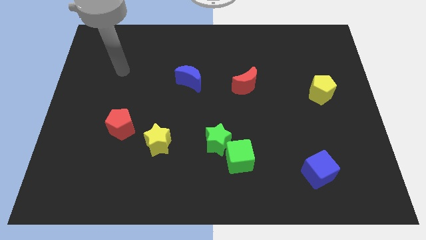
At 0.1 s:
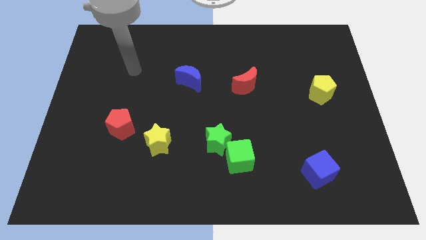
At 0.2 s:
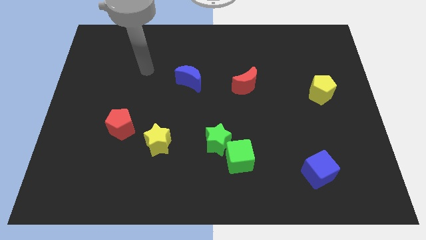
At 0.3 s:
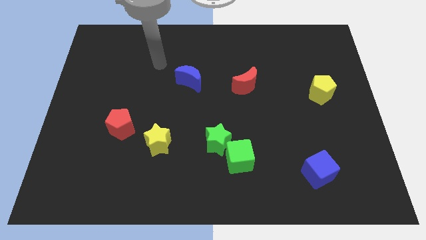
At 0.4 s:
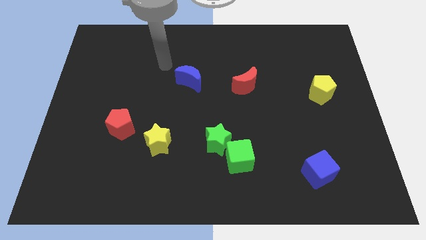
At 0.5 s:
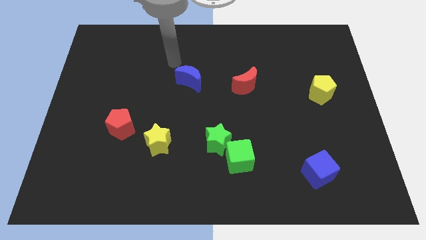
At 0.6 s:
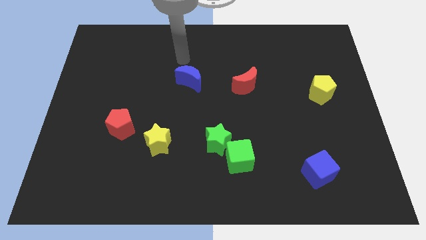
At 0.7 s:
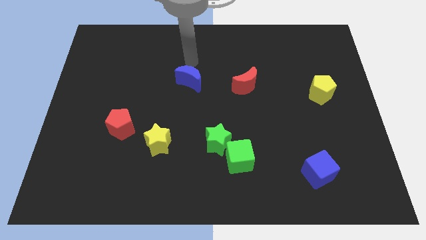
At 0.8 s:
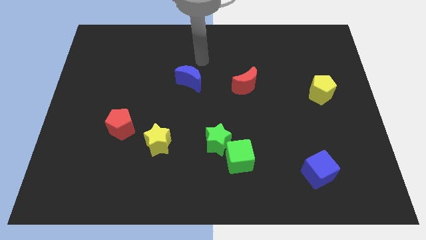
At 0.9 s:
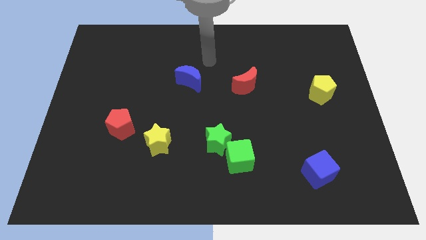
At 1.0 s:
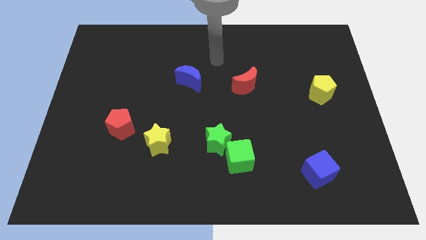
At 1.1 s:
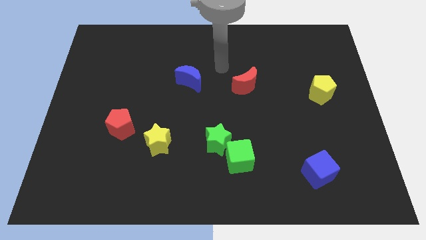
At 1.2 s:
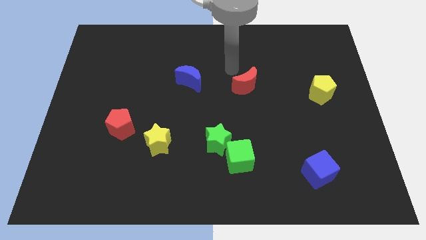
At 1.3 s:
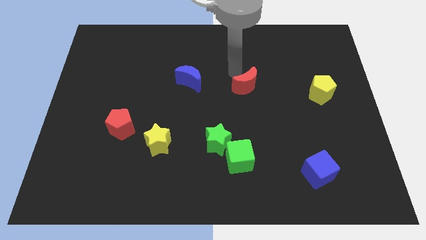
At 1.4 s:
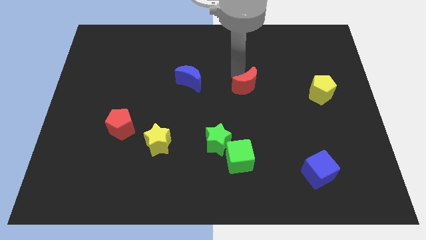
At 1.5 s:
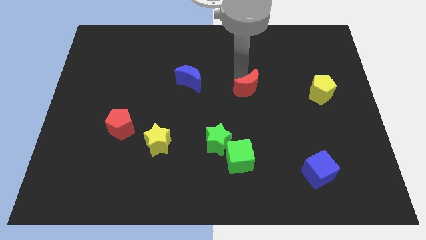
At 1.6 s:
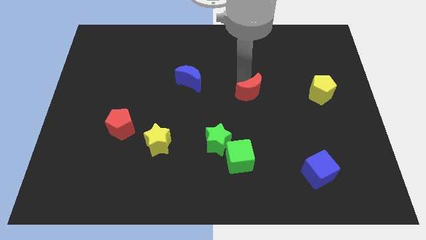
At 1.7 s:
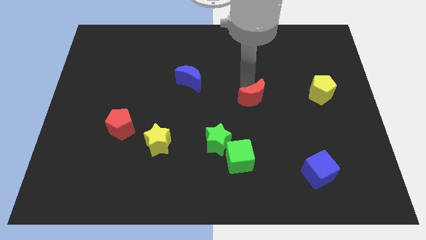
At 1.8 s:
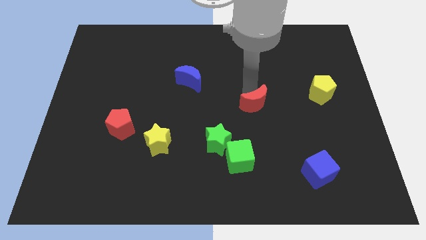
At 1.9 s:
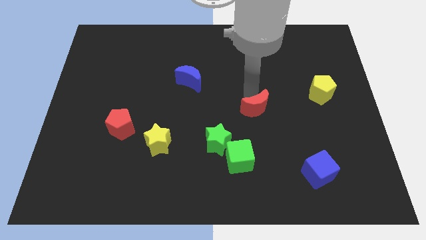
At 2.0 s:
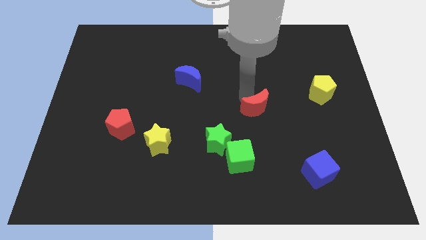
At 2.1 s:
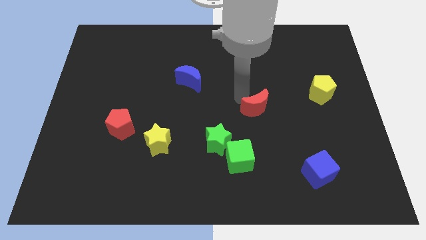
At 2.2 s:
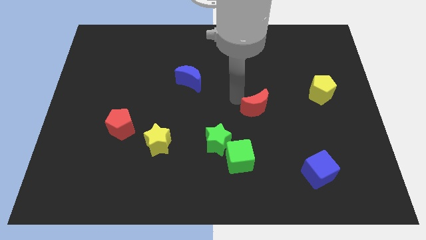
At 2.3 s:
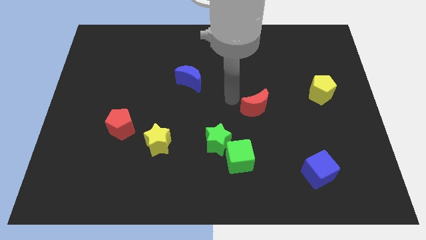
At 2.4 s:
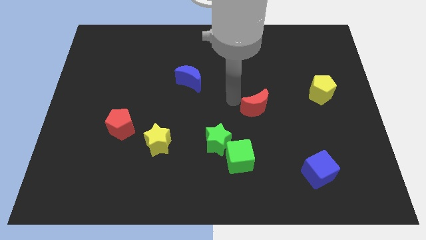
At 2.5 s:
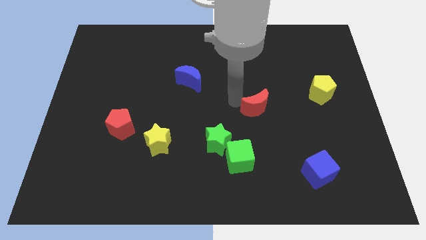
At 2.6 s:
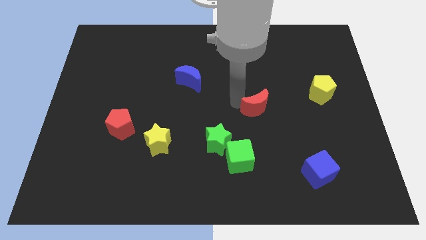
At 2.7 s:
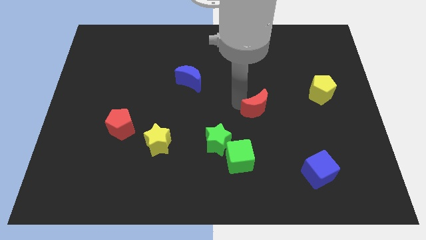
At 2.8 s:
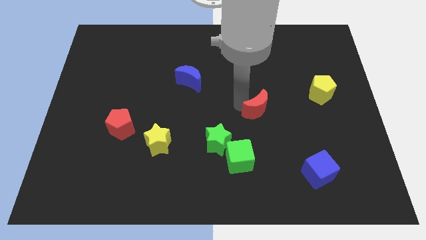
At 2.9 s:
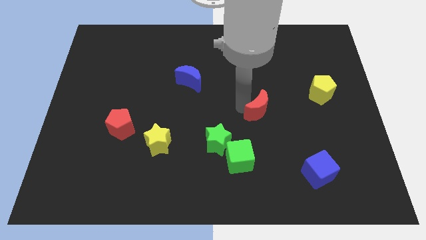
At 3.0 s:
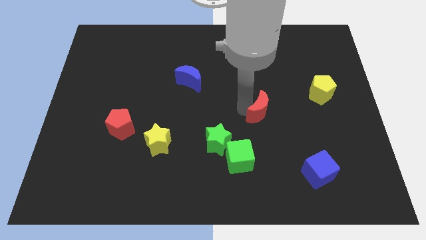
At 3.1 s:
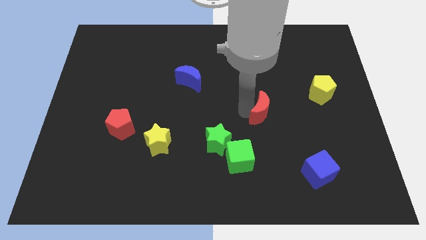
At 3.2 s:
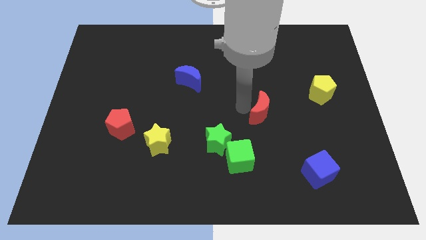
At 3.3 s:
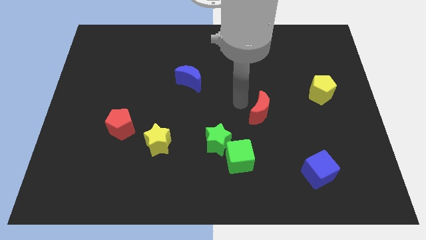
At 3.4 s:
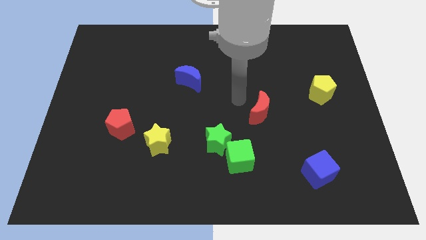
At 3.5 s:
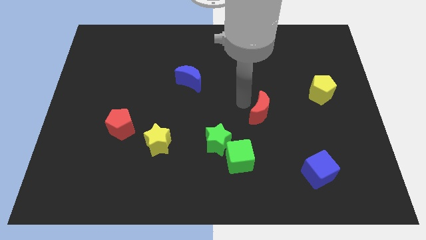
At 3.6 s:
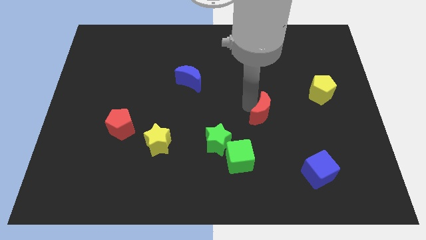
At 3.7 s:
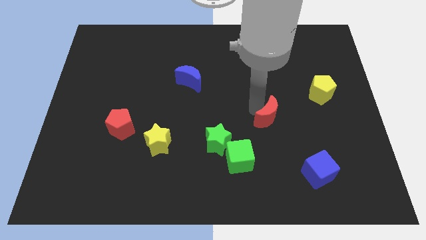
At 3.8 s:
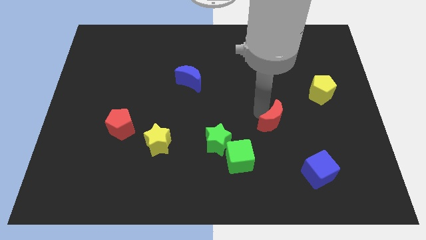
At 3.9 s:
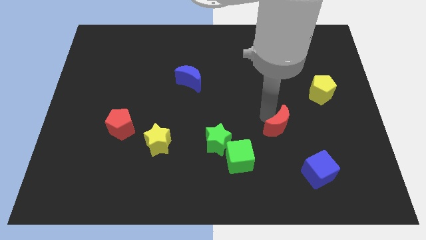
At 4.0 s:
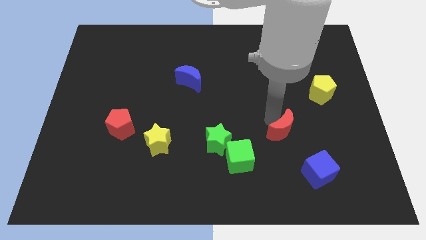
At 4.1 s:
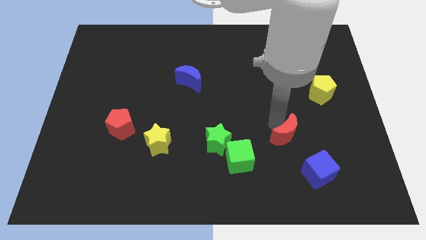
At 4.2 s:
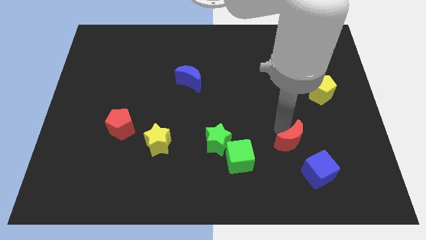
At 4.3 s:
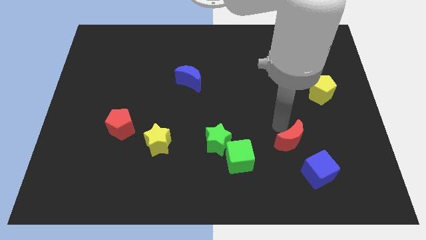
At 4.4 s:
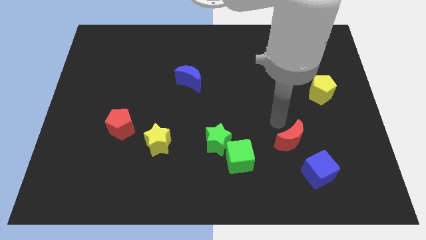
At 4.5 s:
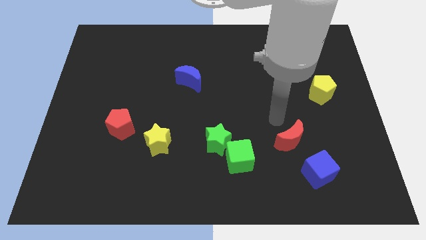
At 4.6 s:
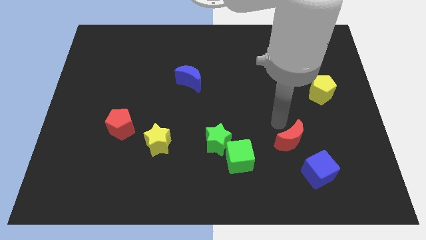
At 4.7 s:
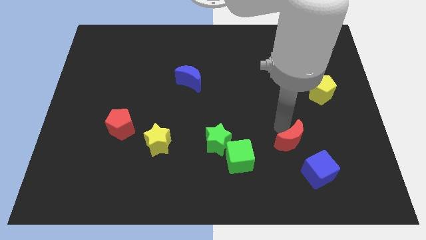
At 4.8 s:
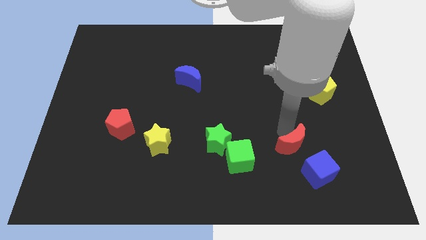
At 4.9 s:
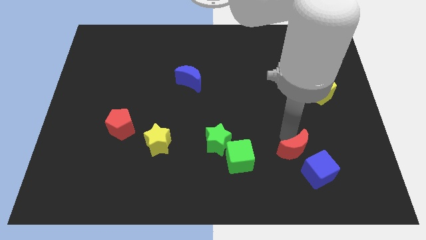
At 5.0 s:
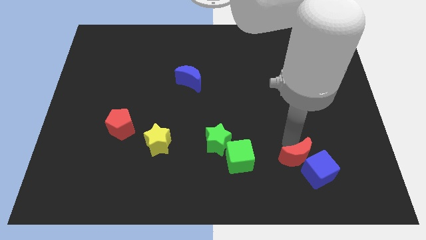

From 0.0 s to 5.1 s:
push the red moon close to the blue cube

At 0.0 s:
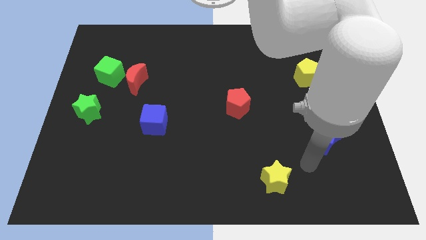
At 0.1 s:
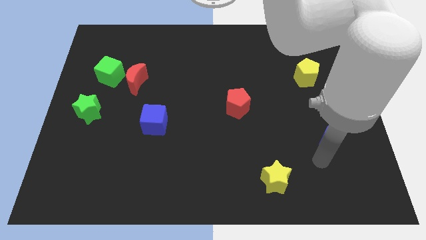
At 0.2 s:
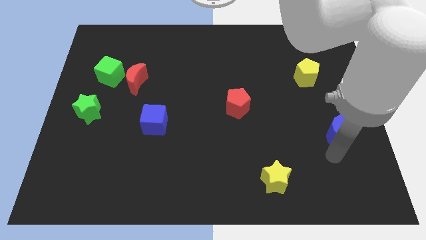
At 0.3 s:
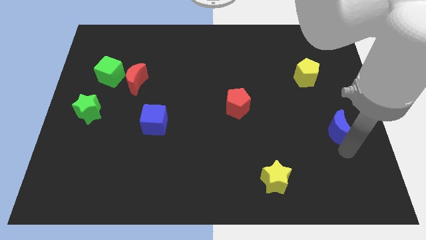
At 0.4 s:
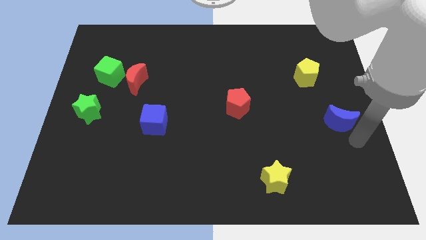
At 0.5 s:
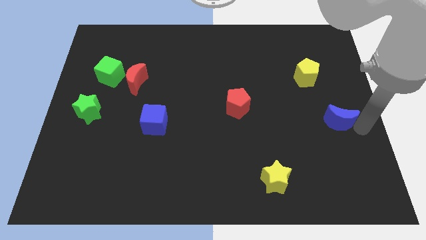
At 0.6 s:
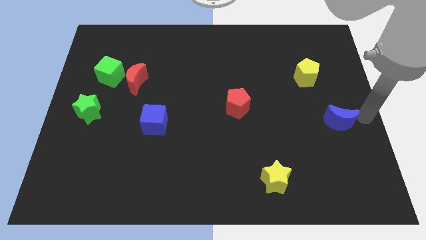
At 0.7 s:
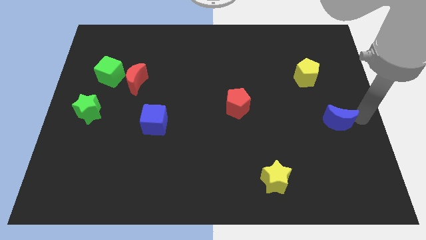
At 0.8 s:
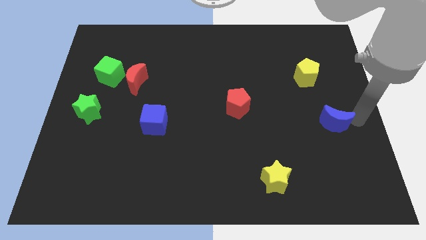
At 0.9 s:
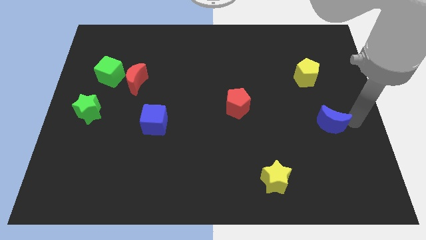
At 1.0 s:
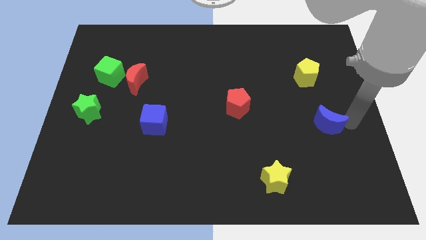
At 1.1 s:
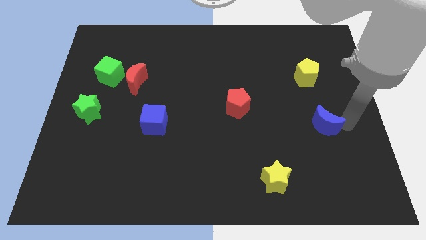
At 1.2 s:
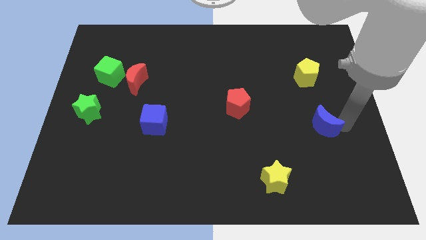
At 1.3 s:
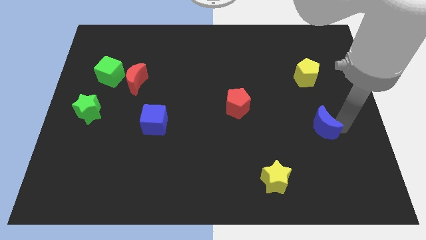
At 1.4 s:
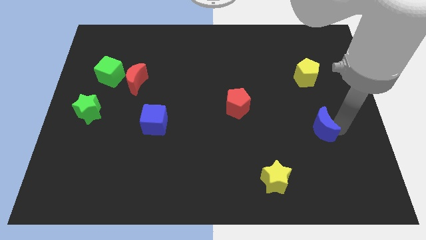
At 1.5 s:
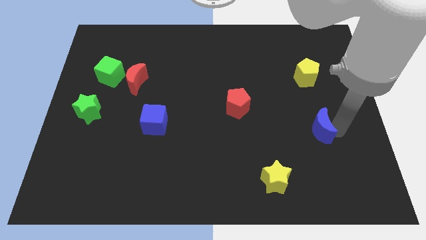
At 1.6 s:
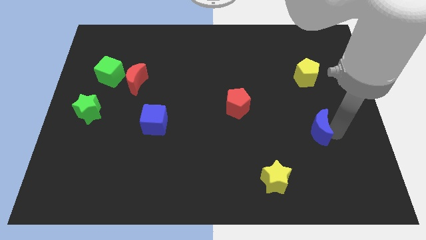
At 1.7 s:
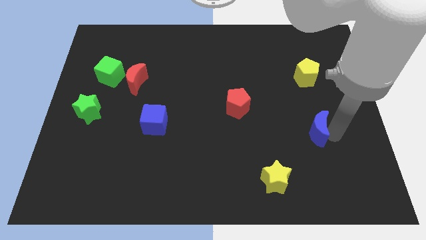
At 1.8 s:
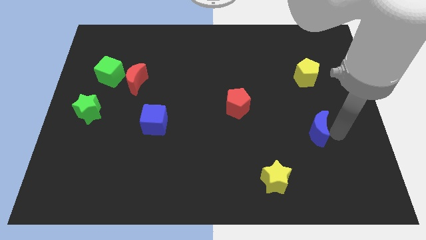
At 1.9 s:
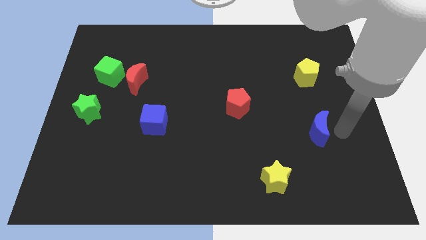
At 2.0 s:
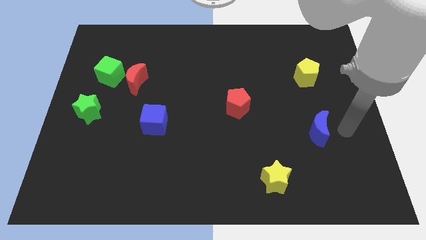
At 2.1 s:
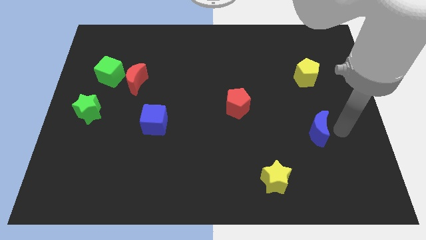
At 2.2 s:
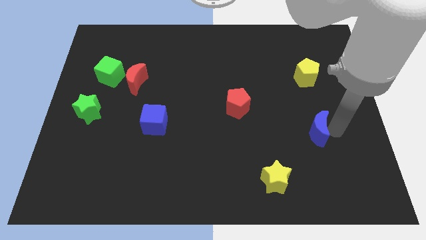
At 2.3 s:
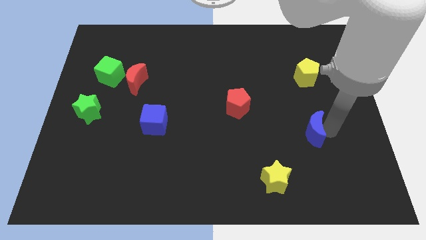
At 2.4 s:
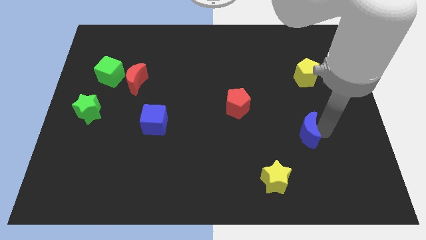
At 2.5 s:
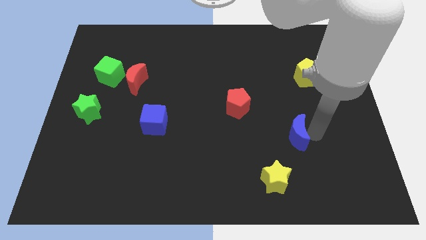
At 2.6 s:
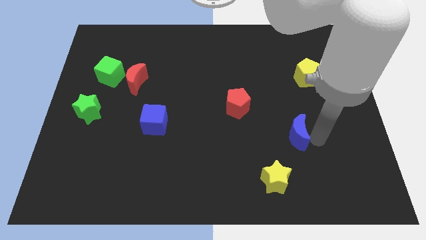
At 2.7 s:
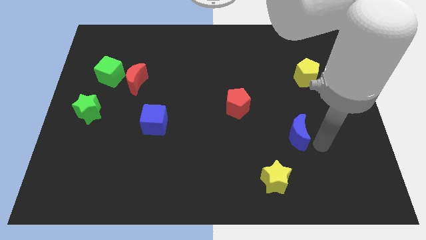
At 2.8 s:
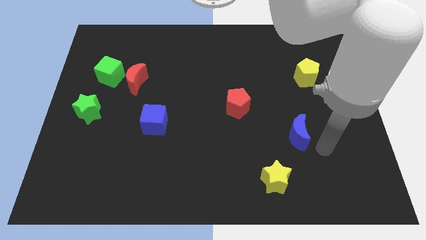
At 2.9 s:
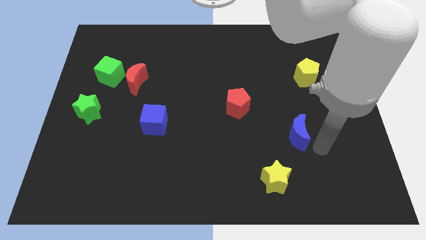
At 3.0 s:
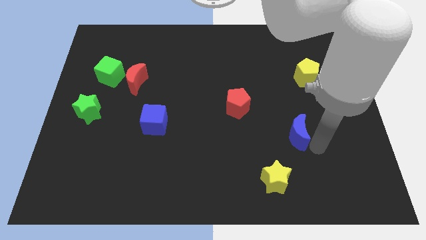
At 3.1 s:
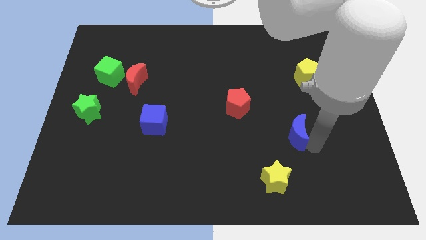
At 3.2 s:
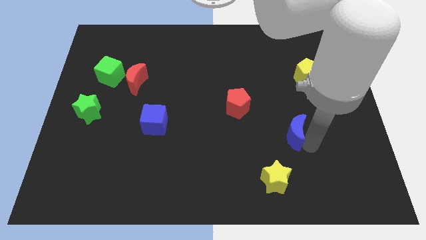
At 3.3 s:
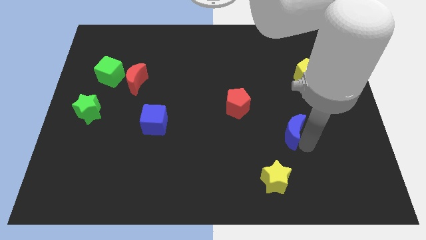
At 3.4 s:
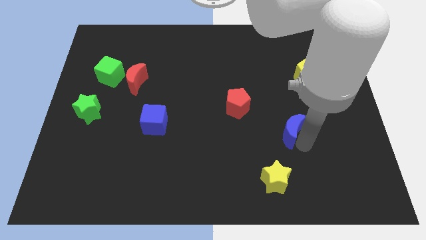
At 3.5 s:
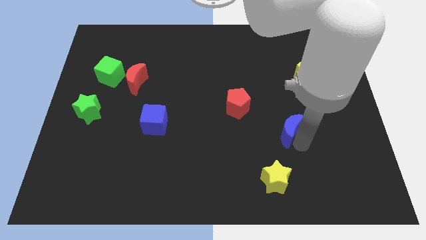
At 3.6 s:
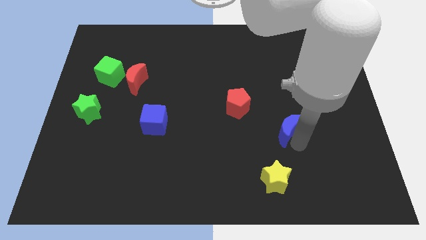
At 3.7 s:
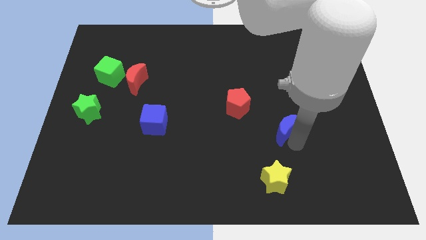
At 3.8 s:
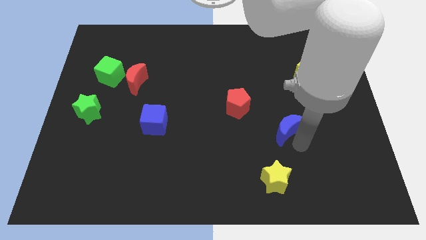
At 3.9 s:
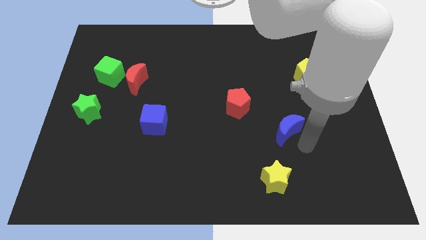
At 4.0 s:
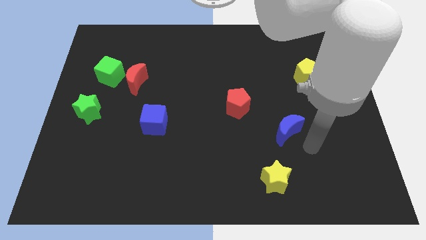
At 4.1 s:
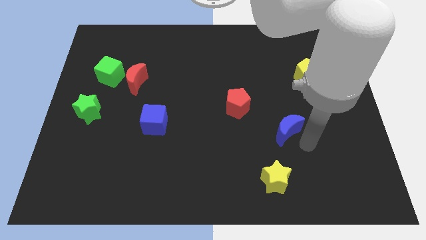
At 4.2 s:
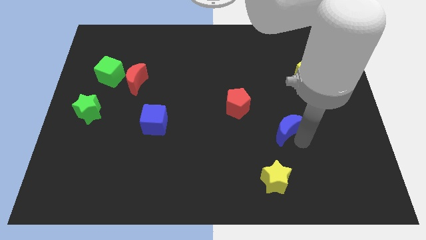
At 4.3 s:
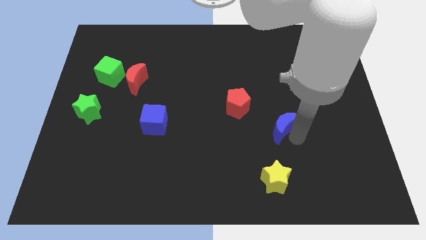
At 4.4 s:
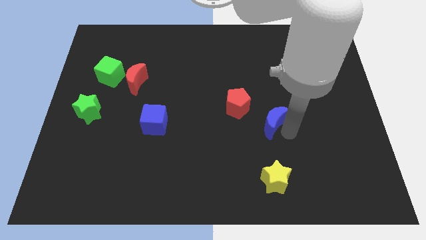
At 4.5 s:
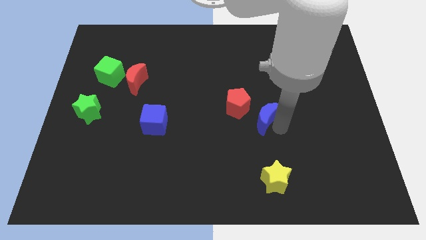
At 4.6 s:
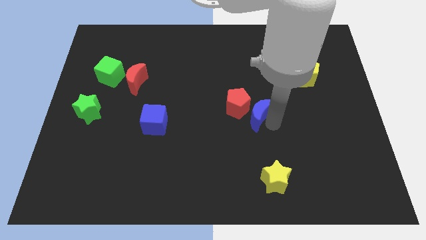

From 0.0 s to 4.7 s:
push the blue moon towards the red pentagon
